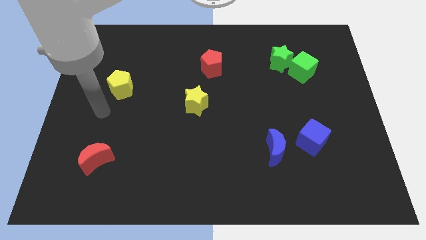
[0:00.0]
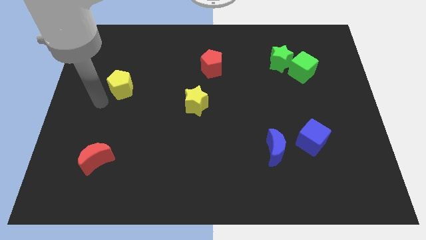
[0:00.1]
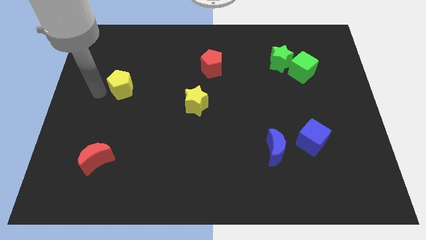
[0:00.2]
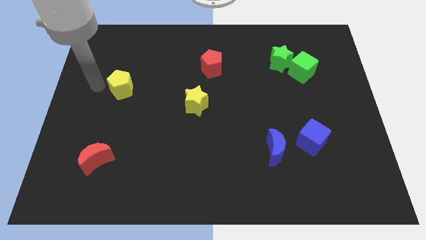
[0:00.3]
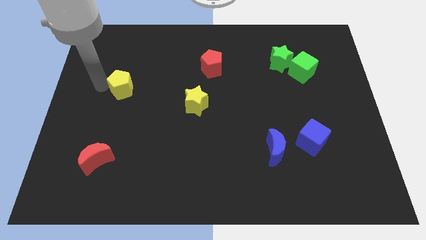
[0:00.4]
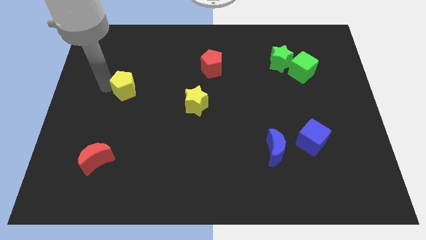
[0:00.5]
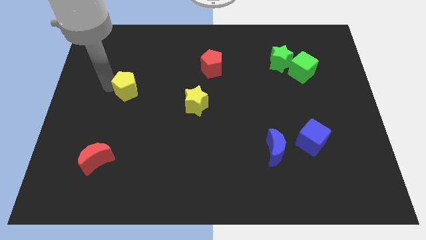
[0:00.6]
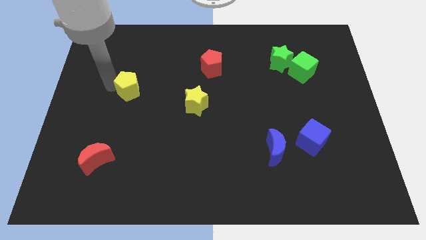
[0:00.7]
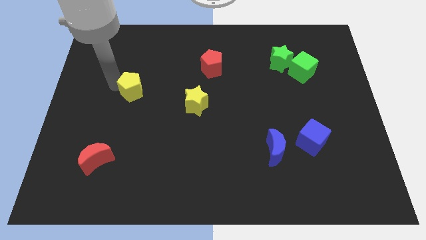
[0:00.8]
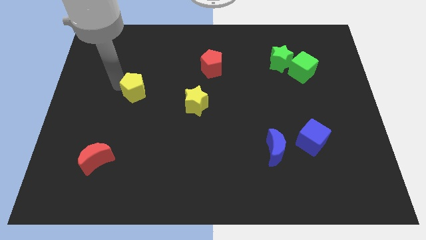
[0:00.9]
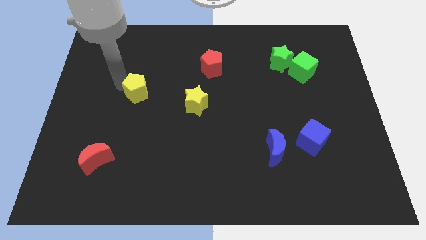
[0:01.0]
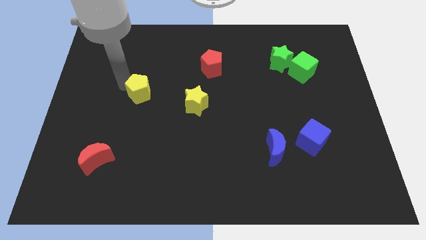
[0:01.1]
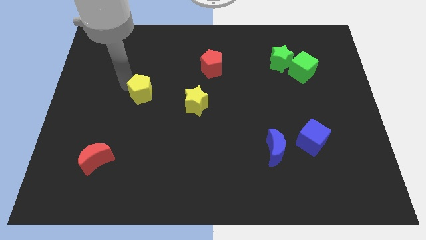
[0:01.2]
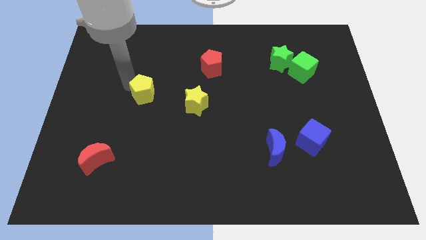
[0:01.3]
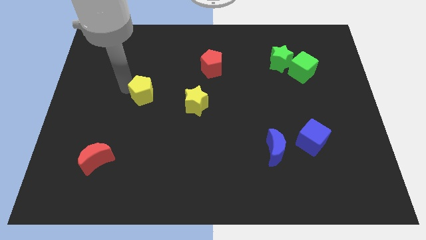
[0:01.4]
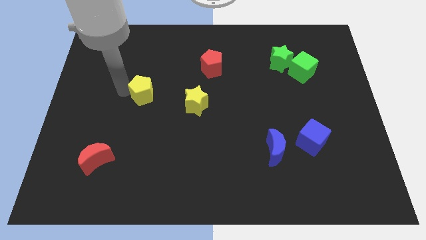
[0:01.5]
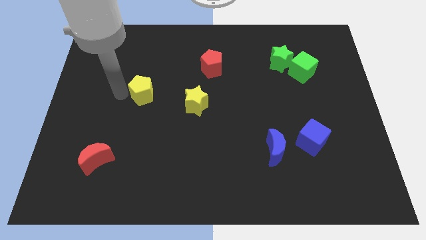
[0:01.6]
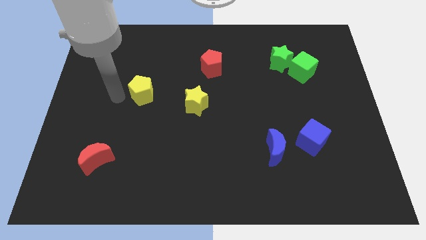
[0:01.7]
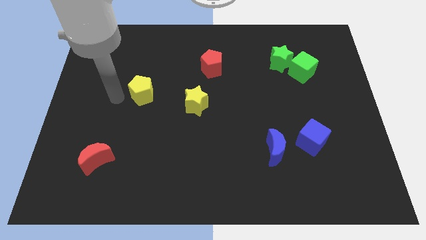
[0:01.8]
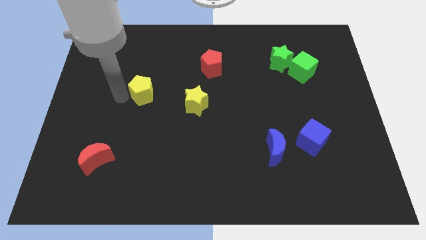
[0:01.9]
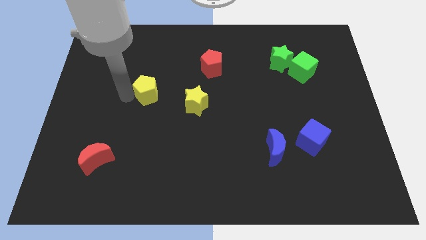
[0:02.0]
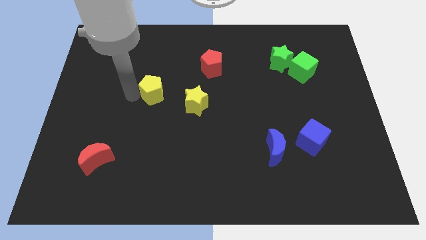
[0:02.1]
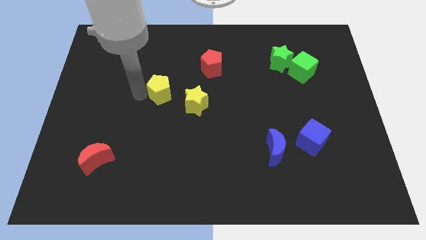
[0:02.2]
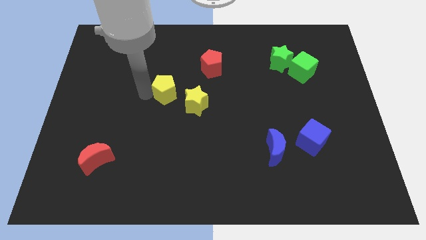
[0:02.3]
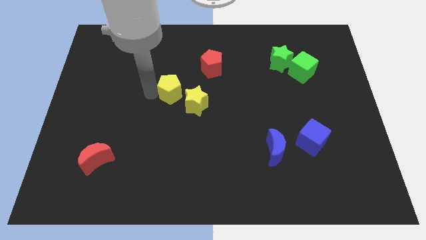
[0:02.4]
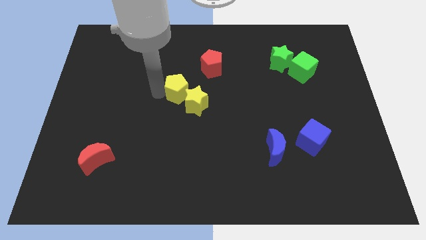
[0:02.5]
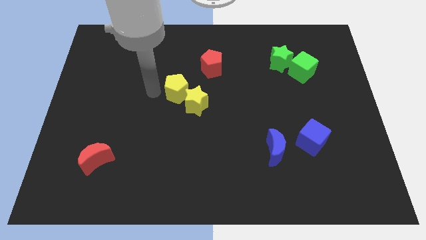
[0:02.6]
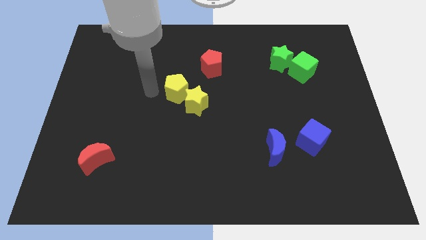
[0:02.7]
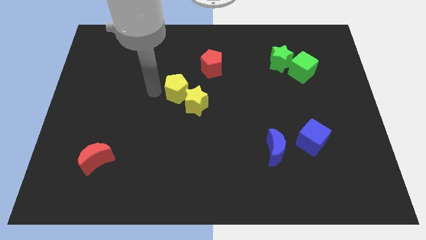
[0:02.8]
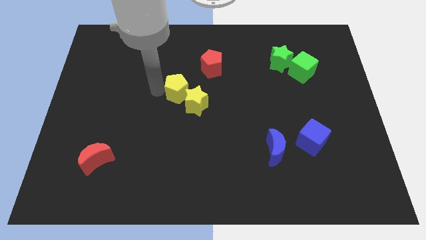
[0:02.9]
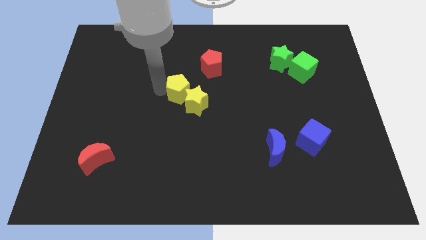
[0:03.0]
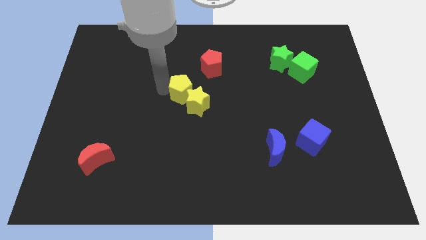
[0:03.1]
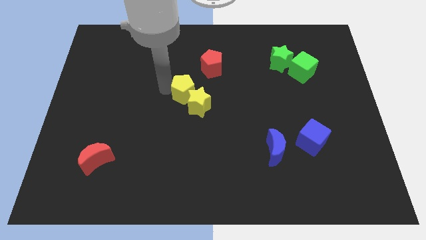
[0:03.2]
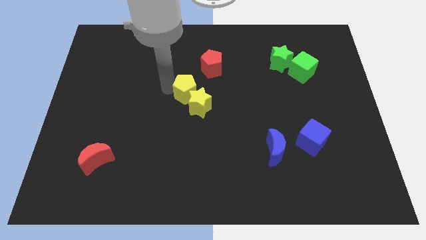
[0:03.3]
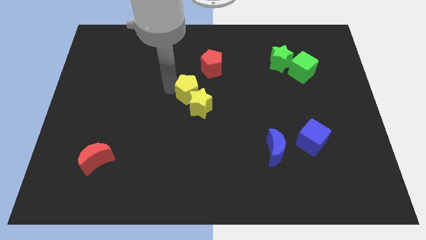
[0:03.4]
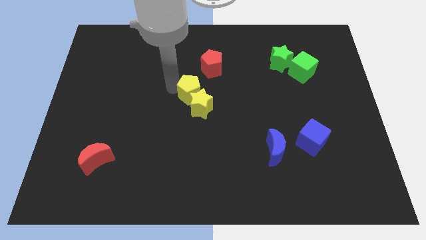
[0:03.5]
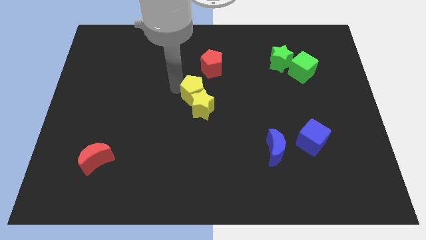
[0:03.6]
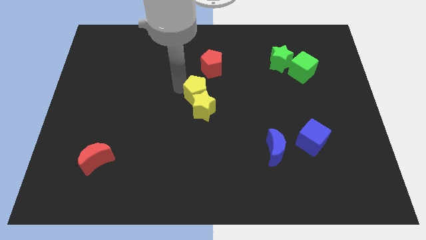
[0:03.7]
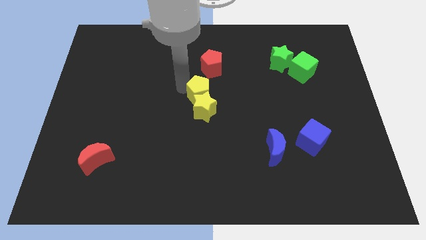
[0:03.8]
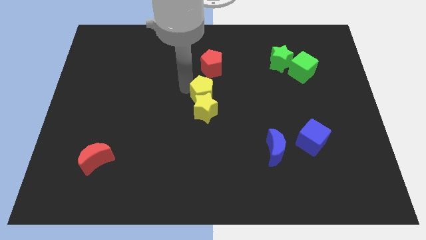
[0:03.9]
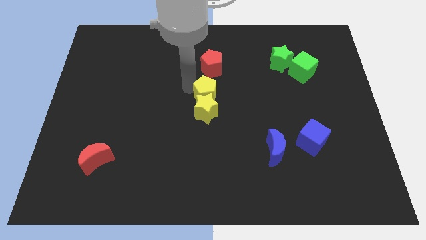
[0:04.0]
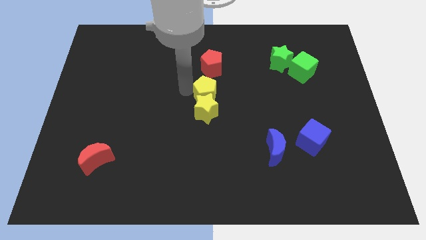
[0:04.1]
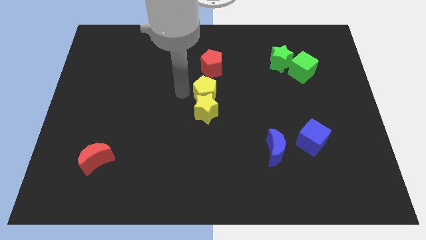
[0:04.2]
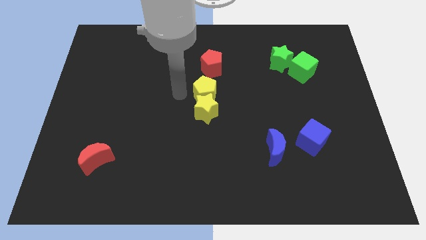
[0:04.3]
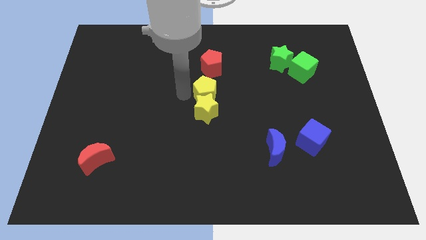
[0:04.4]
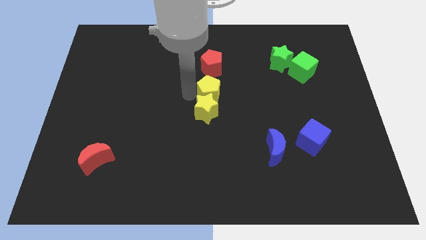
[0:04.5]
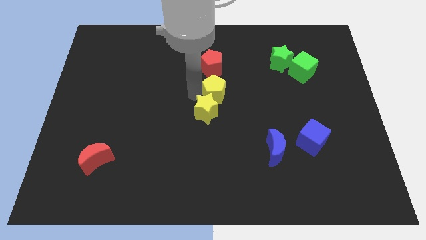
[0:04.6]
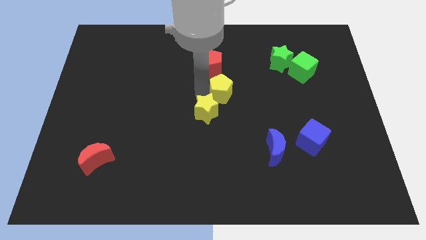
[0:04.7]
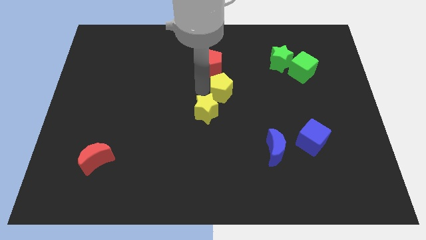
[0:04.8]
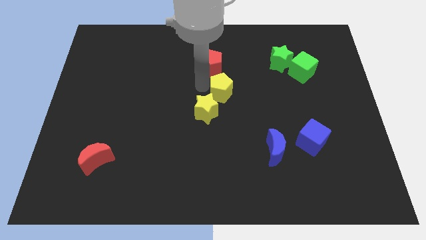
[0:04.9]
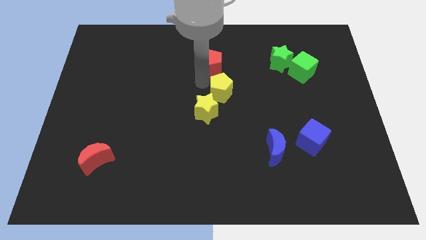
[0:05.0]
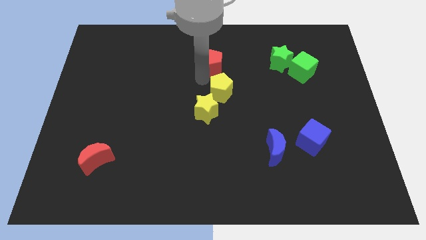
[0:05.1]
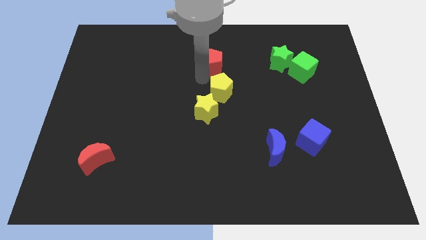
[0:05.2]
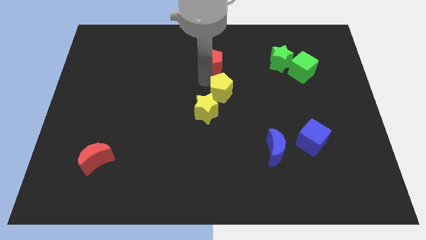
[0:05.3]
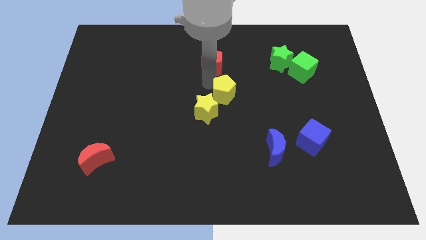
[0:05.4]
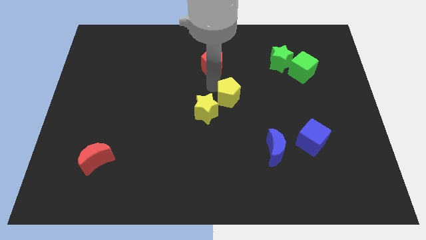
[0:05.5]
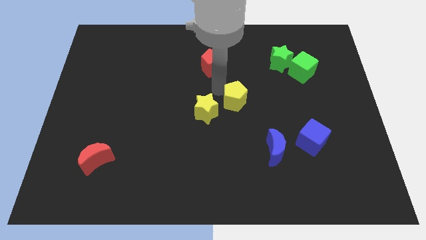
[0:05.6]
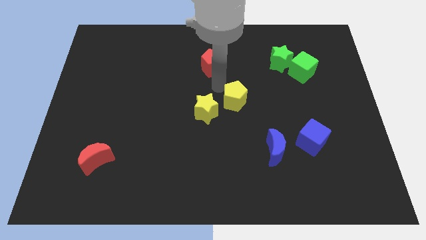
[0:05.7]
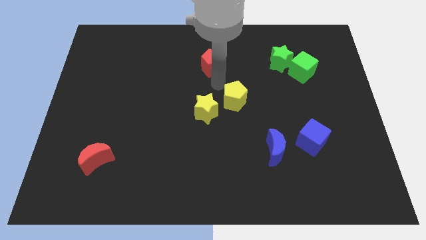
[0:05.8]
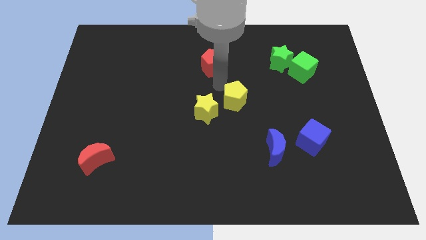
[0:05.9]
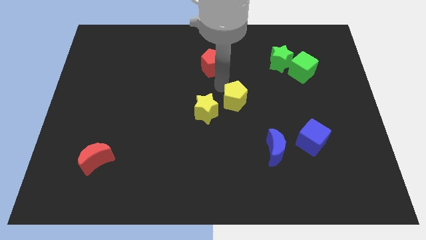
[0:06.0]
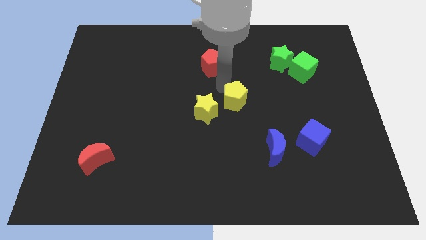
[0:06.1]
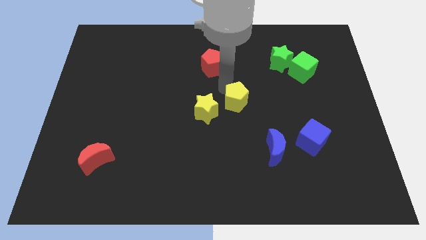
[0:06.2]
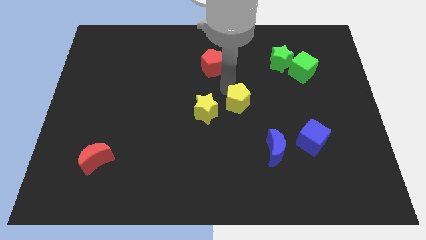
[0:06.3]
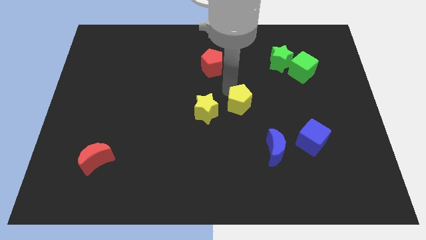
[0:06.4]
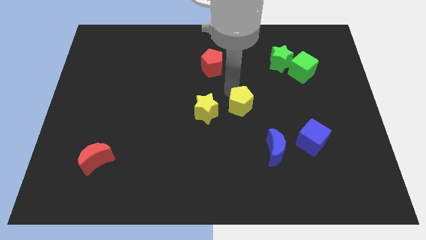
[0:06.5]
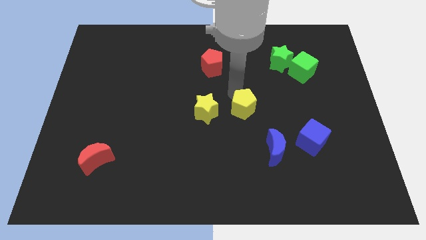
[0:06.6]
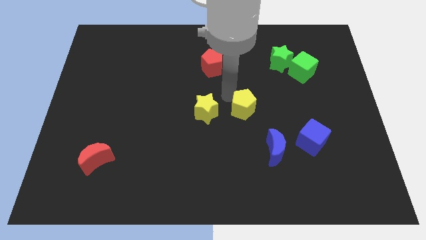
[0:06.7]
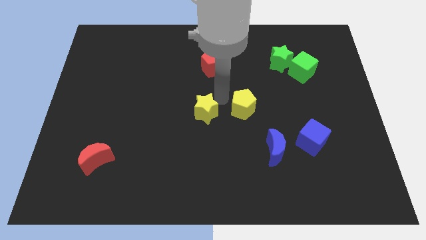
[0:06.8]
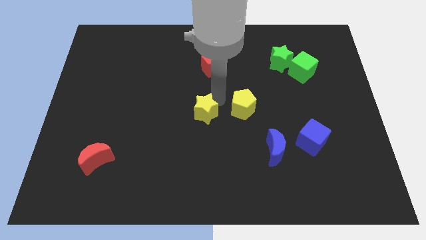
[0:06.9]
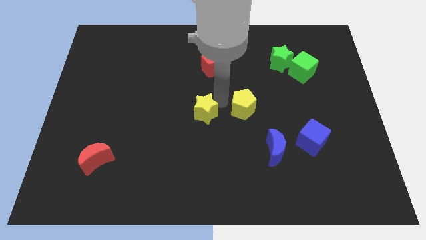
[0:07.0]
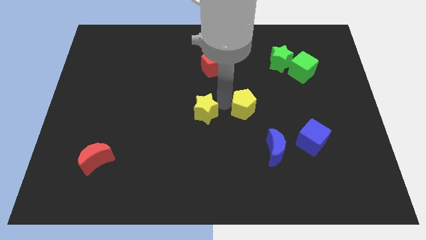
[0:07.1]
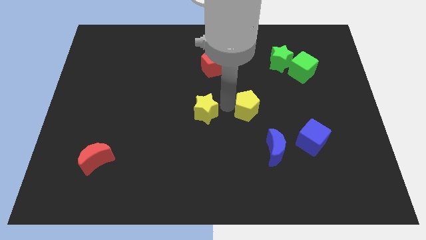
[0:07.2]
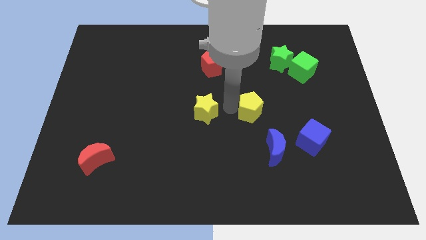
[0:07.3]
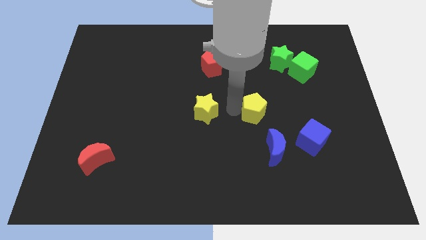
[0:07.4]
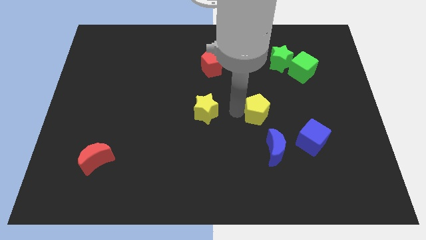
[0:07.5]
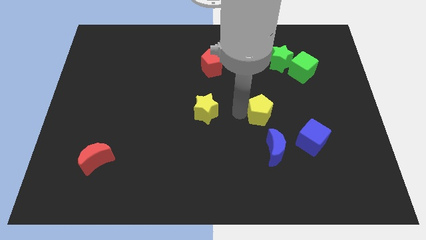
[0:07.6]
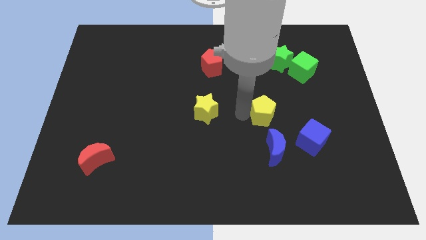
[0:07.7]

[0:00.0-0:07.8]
slide the yellow pentagon to the top left side of the blue cube
